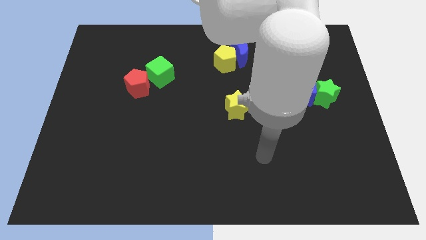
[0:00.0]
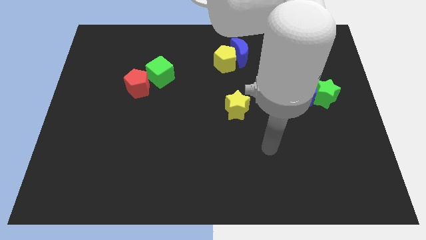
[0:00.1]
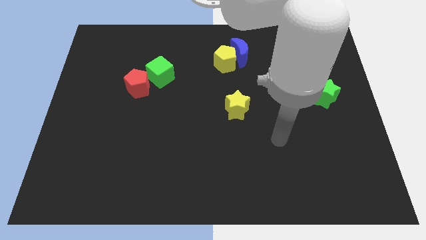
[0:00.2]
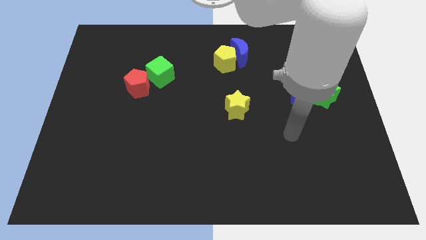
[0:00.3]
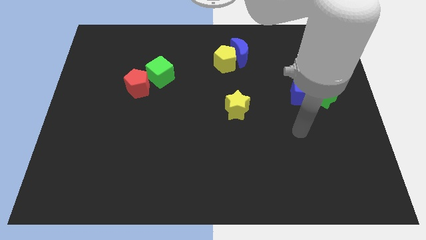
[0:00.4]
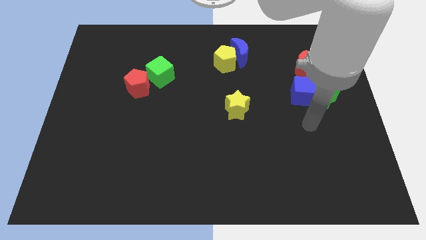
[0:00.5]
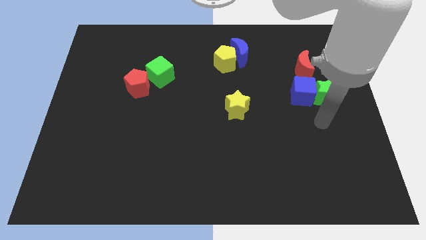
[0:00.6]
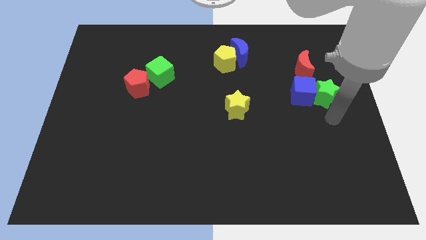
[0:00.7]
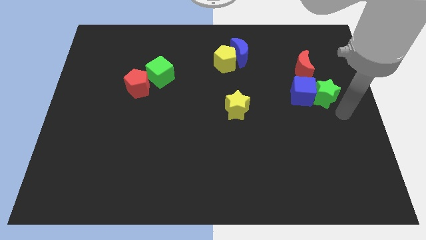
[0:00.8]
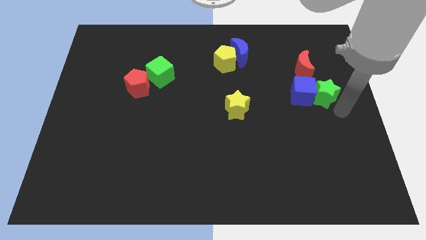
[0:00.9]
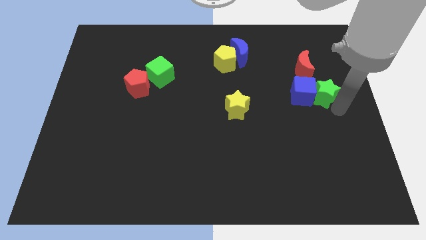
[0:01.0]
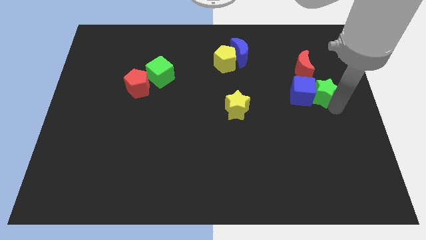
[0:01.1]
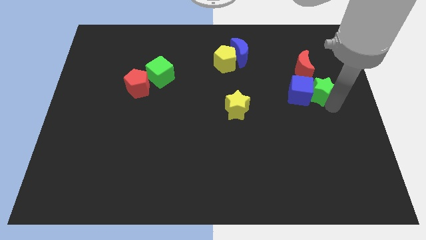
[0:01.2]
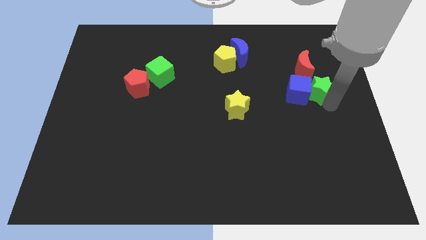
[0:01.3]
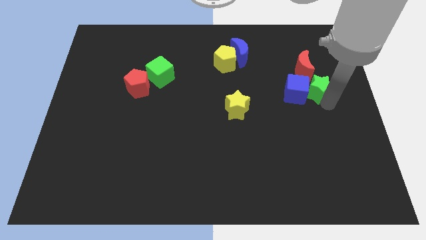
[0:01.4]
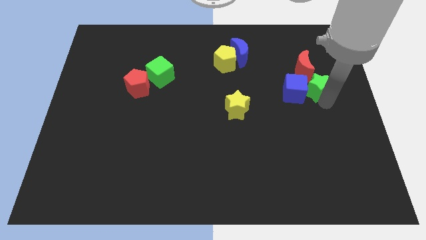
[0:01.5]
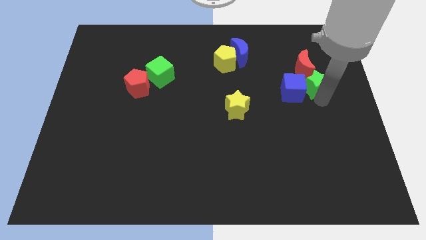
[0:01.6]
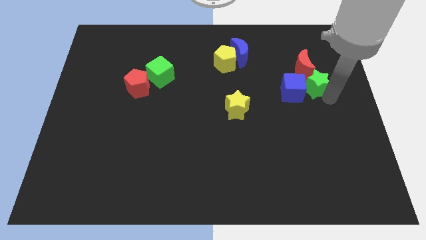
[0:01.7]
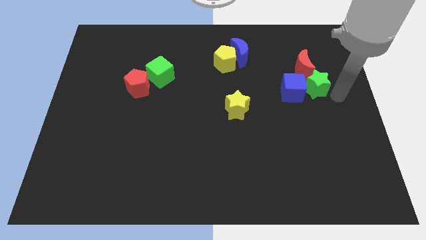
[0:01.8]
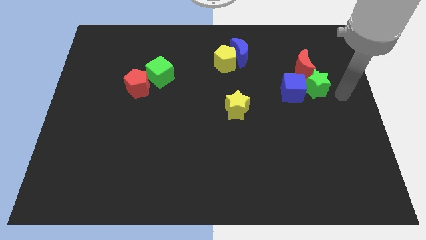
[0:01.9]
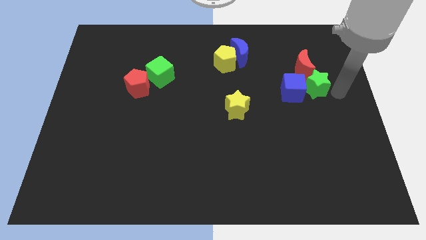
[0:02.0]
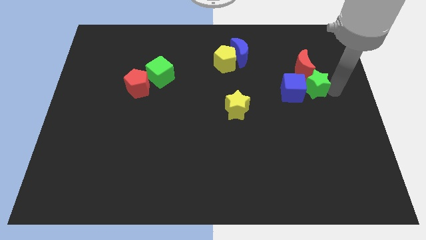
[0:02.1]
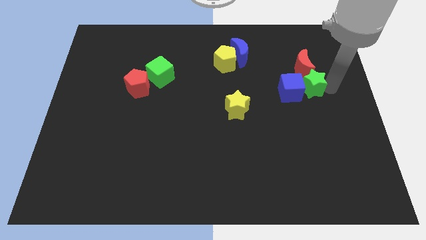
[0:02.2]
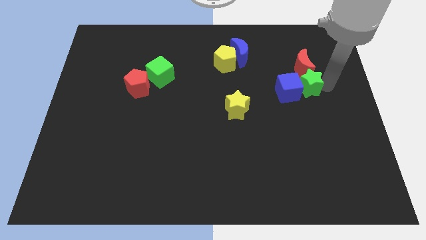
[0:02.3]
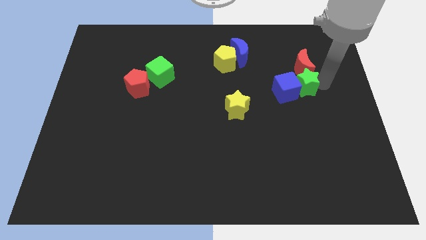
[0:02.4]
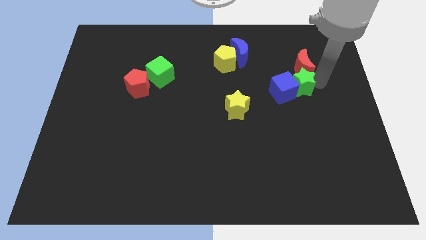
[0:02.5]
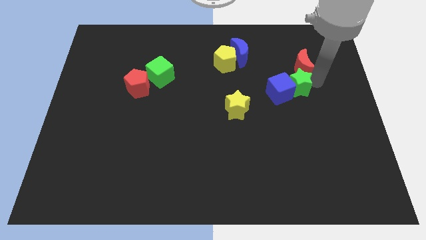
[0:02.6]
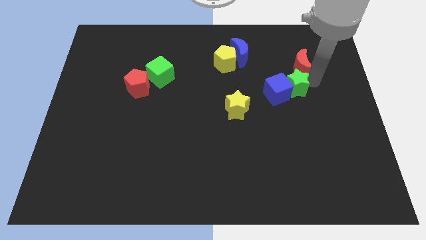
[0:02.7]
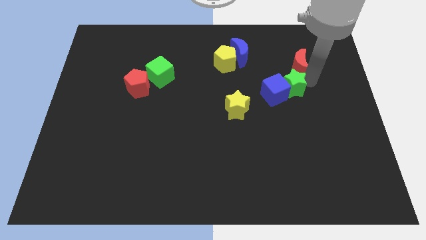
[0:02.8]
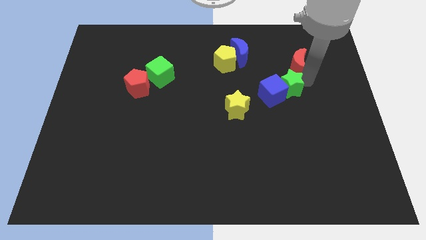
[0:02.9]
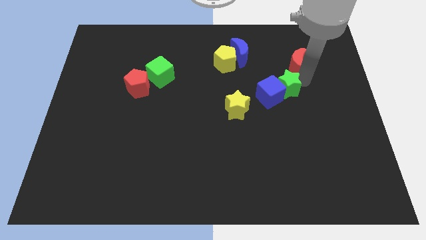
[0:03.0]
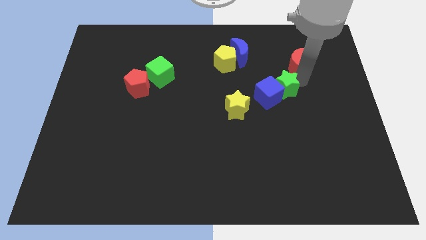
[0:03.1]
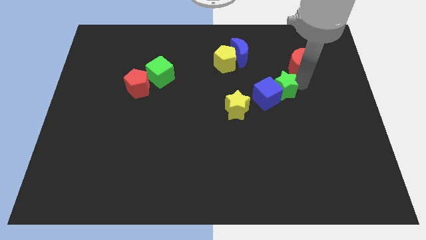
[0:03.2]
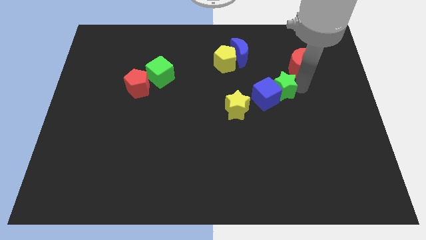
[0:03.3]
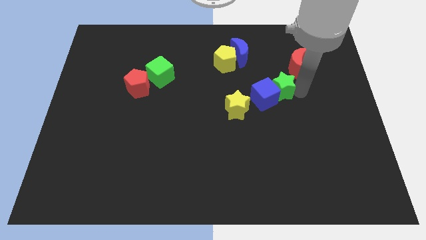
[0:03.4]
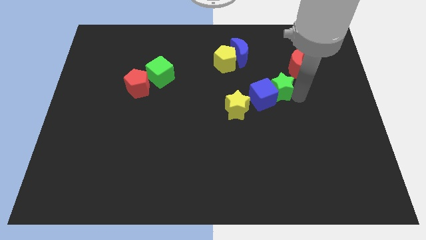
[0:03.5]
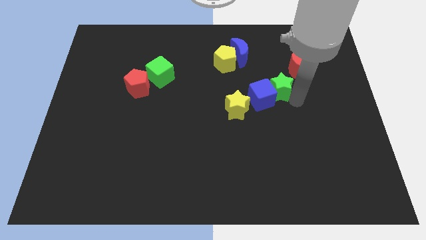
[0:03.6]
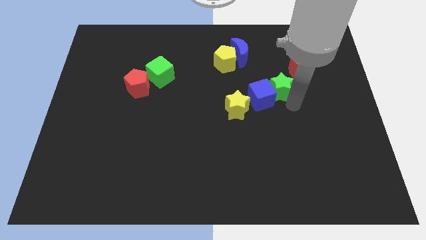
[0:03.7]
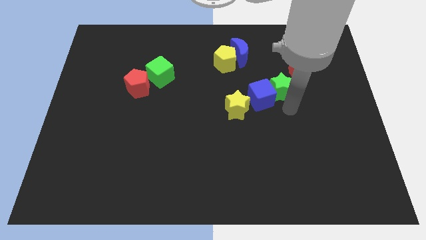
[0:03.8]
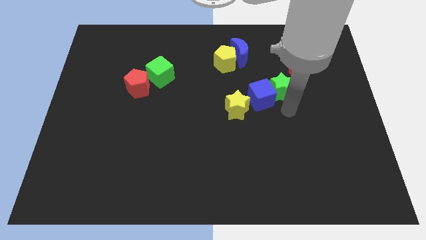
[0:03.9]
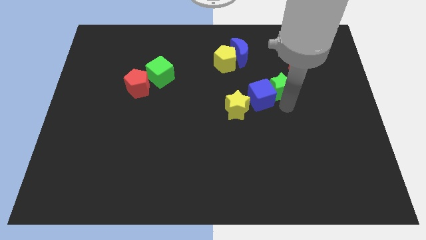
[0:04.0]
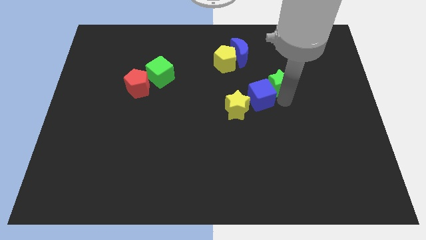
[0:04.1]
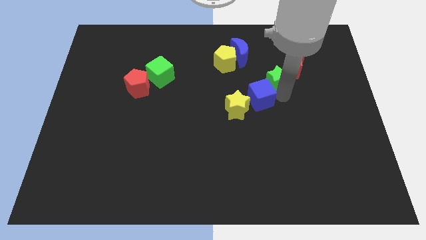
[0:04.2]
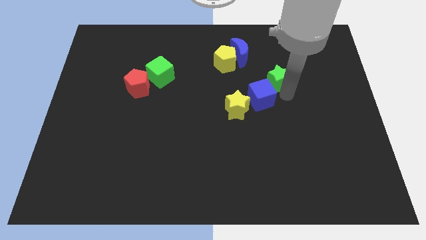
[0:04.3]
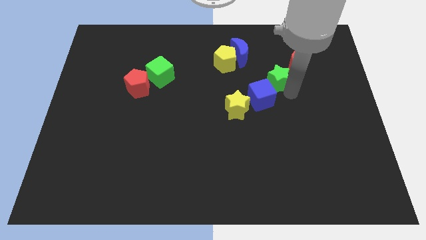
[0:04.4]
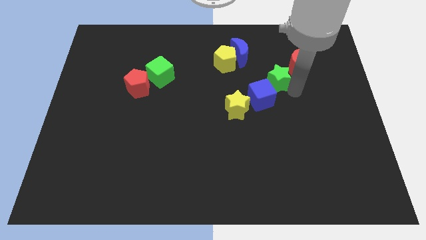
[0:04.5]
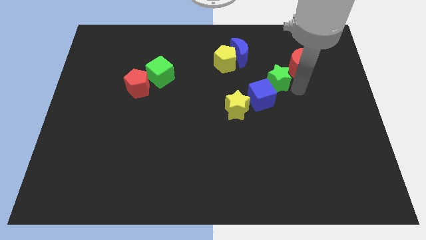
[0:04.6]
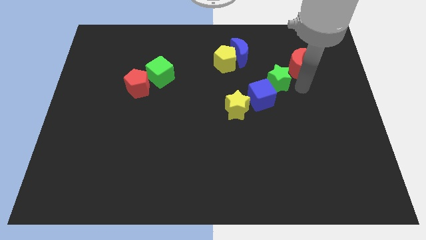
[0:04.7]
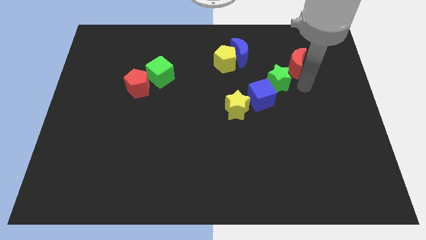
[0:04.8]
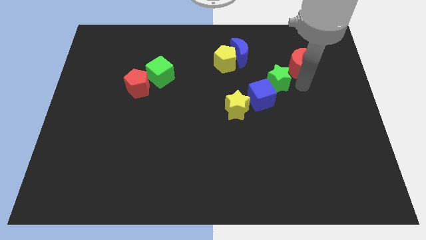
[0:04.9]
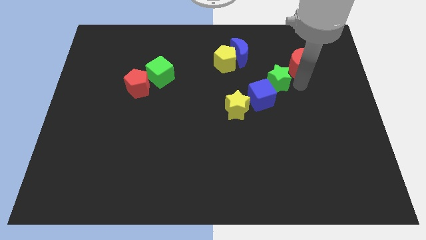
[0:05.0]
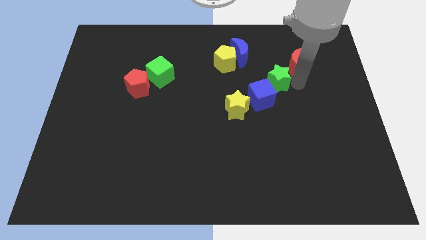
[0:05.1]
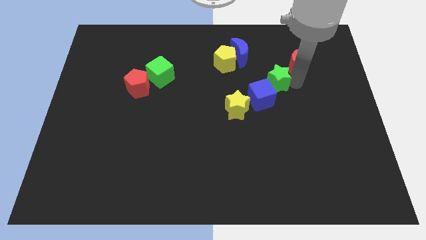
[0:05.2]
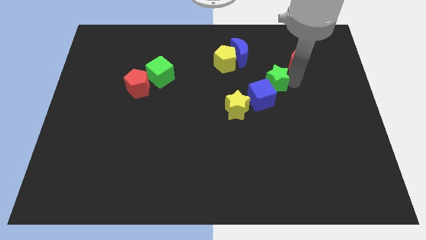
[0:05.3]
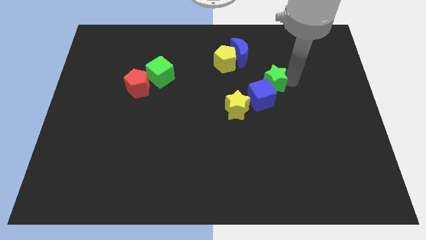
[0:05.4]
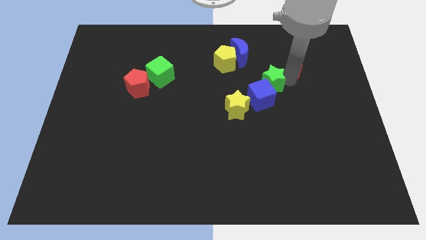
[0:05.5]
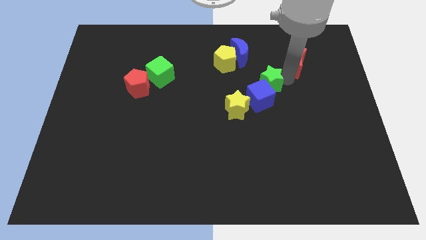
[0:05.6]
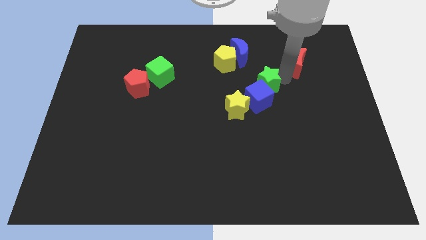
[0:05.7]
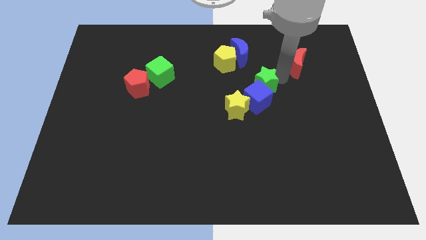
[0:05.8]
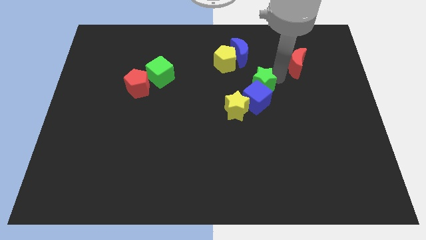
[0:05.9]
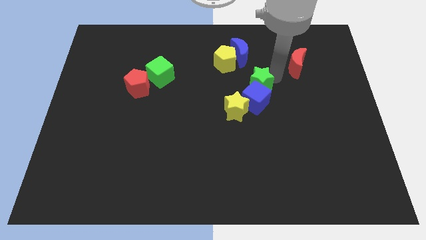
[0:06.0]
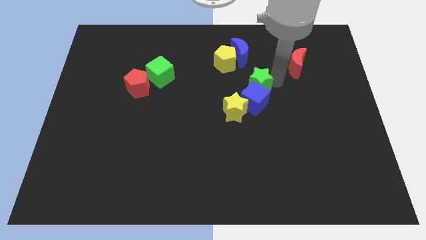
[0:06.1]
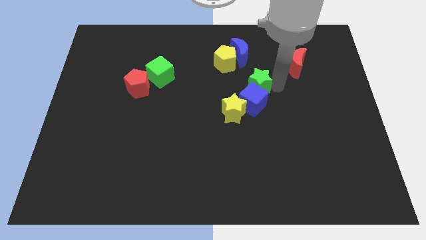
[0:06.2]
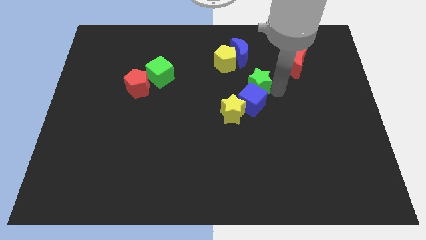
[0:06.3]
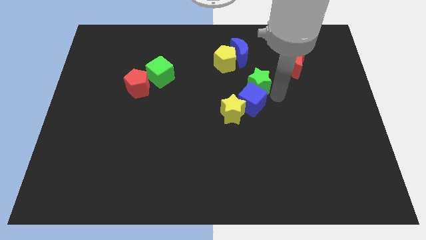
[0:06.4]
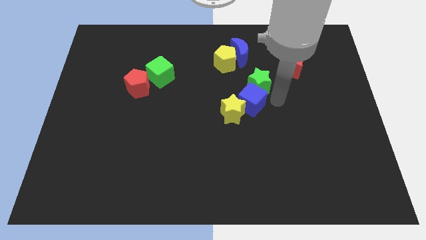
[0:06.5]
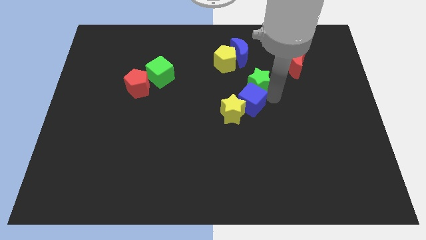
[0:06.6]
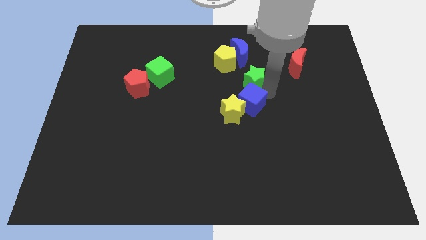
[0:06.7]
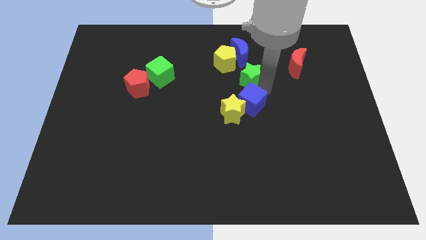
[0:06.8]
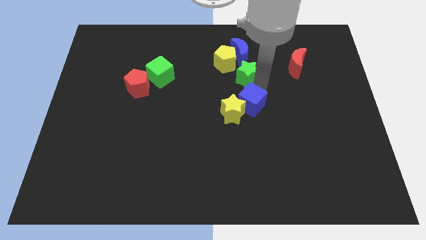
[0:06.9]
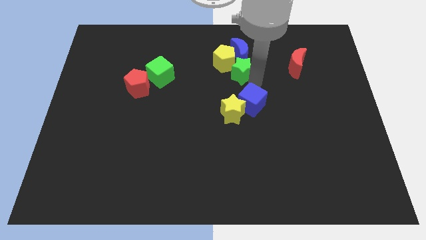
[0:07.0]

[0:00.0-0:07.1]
move the green star to the yellow pentagon
